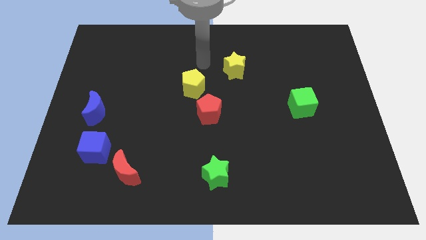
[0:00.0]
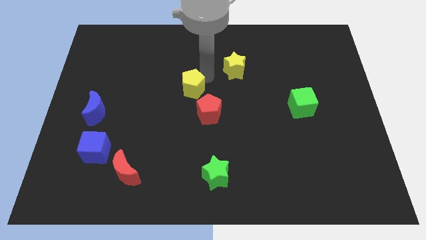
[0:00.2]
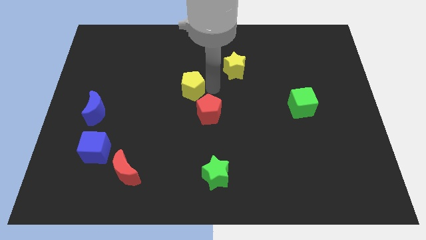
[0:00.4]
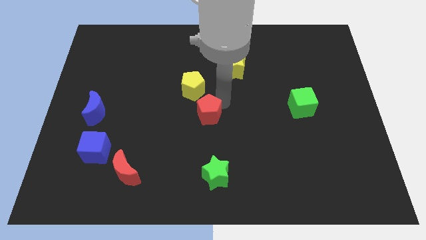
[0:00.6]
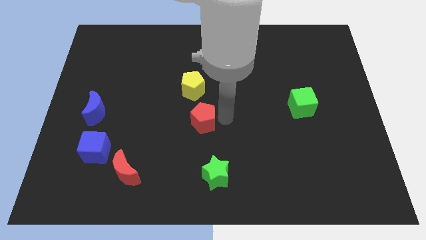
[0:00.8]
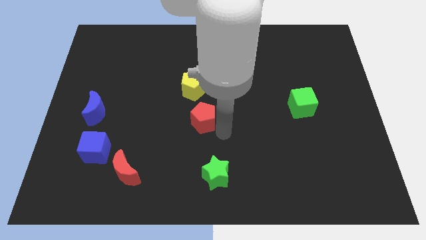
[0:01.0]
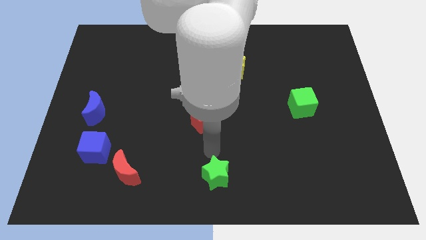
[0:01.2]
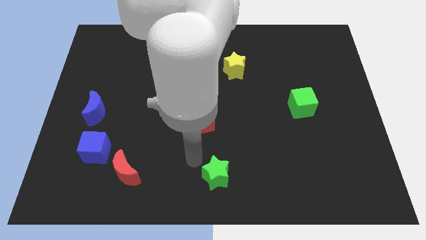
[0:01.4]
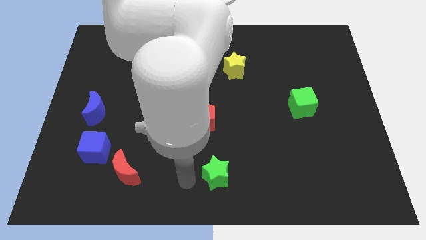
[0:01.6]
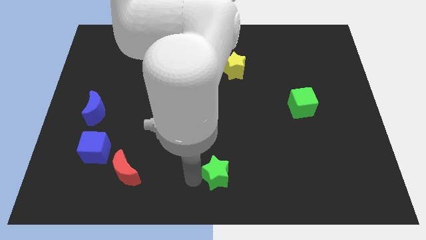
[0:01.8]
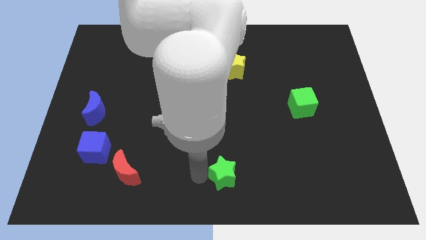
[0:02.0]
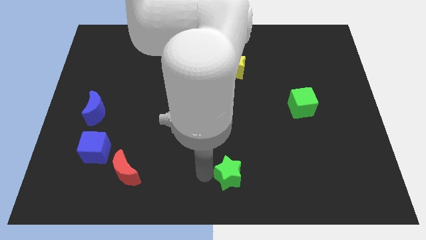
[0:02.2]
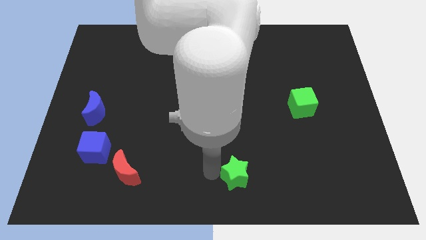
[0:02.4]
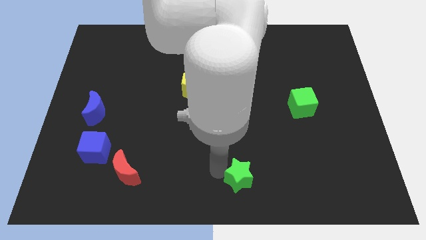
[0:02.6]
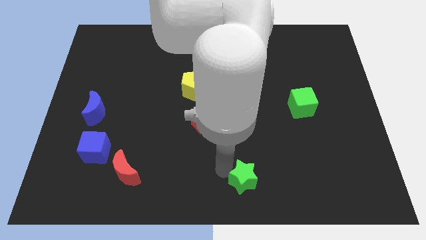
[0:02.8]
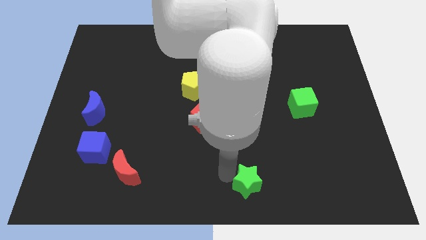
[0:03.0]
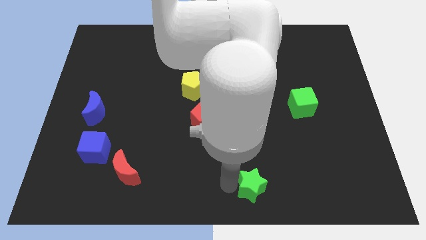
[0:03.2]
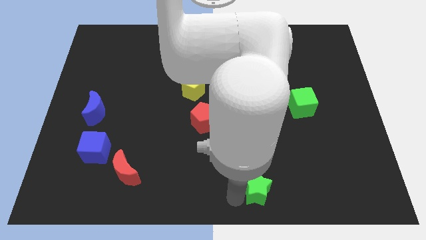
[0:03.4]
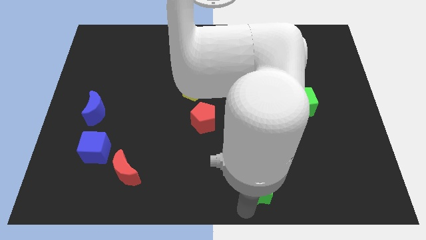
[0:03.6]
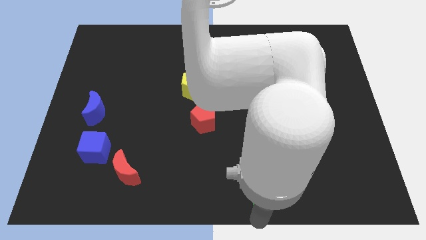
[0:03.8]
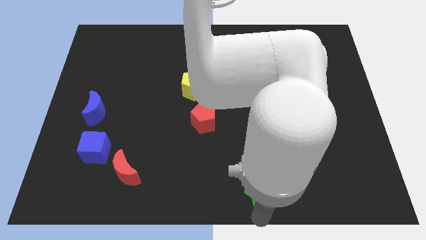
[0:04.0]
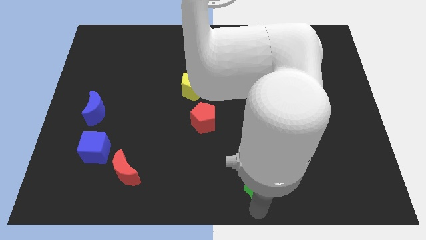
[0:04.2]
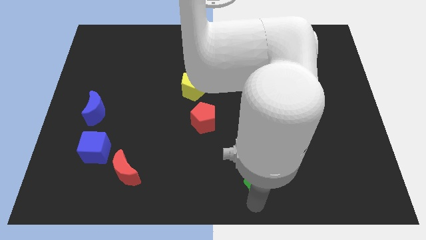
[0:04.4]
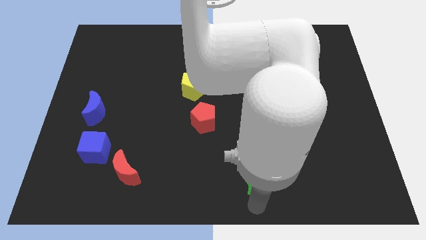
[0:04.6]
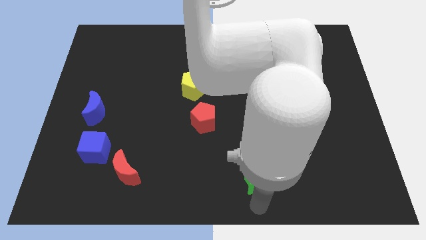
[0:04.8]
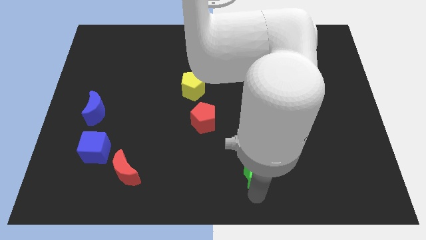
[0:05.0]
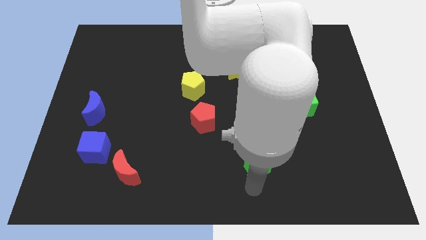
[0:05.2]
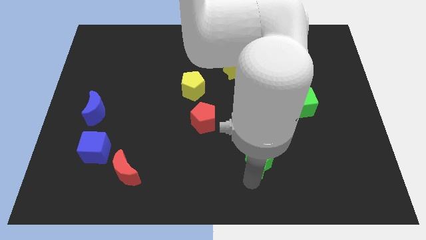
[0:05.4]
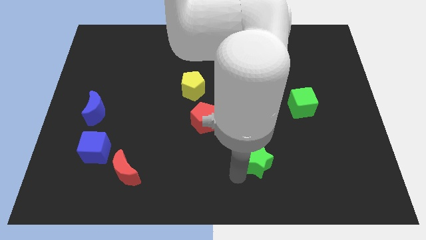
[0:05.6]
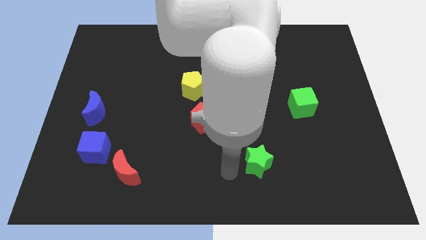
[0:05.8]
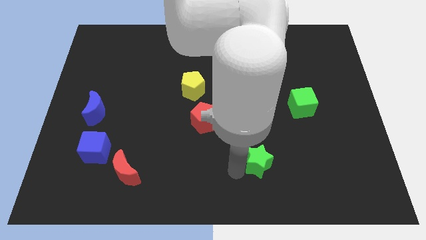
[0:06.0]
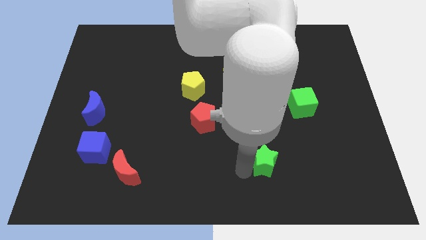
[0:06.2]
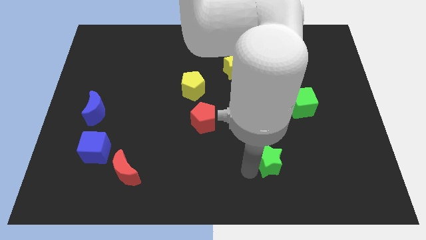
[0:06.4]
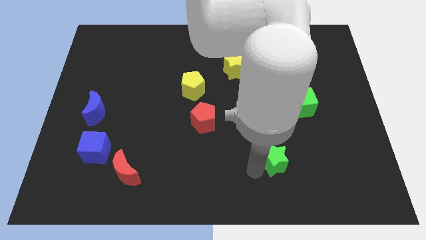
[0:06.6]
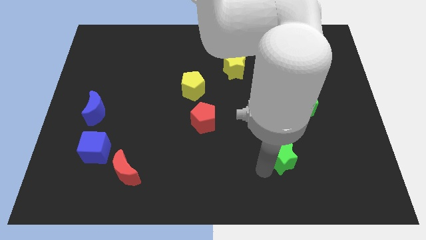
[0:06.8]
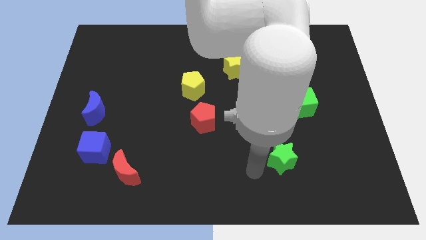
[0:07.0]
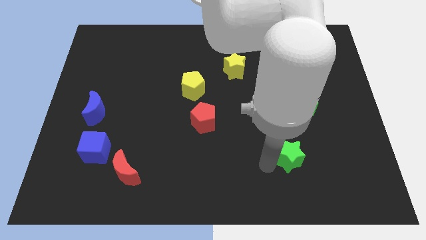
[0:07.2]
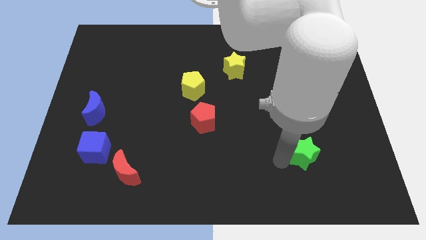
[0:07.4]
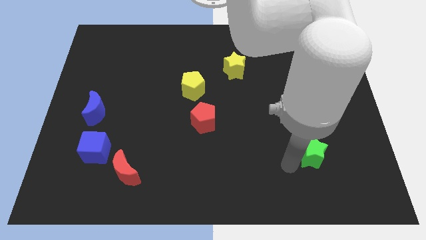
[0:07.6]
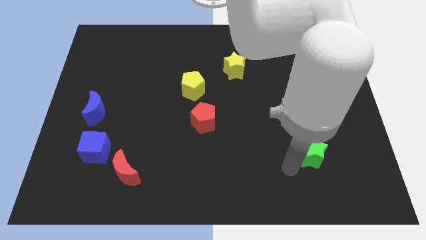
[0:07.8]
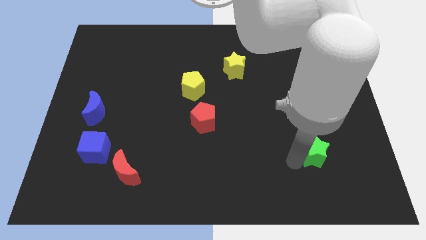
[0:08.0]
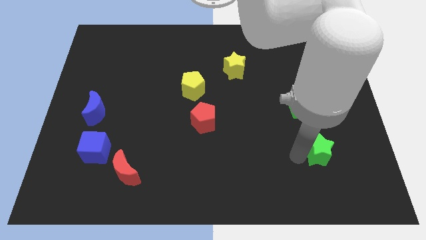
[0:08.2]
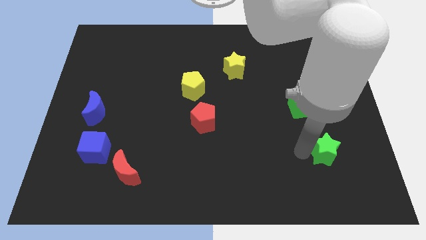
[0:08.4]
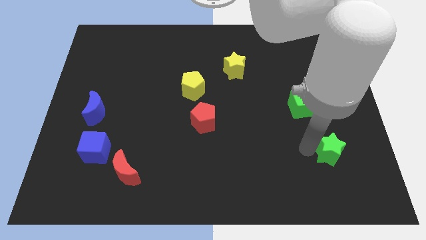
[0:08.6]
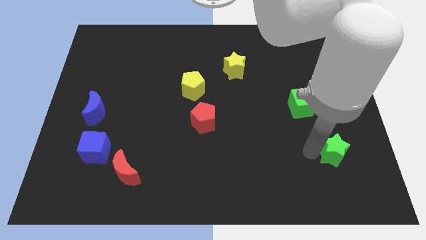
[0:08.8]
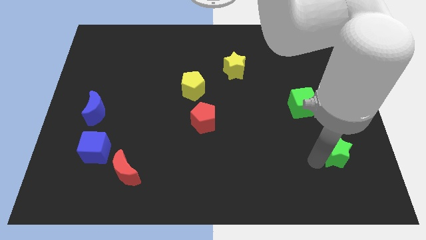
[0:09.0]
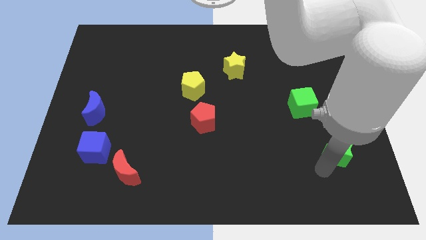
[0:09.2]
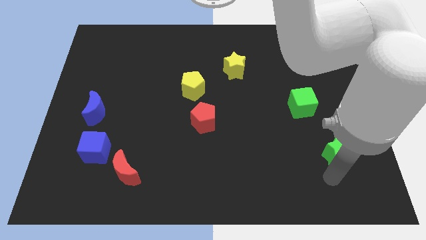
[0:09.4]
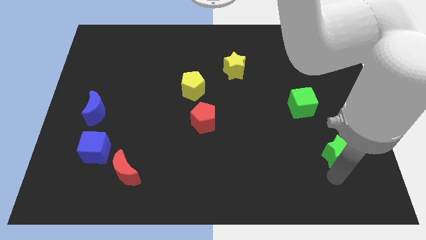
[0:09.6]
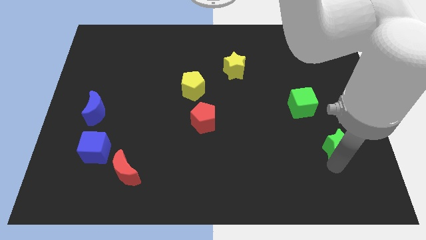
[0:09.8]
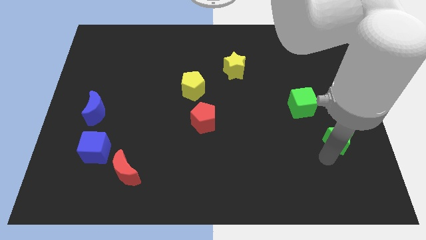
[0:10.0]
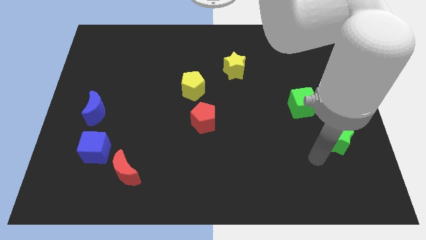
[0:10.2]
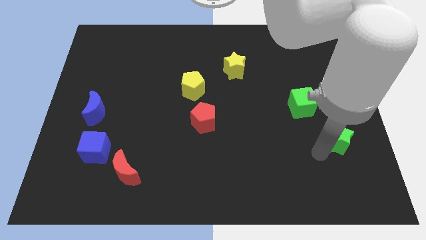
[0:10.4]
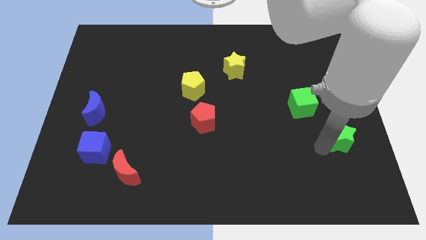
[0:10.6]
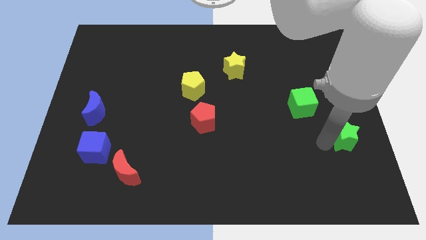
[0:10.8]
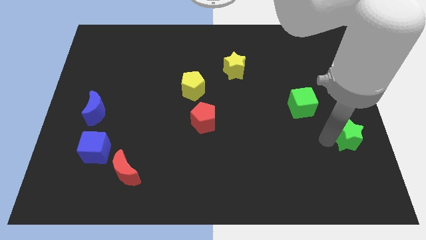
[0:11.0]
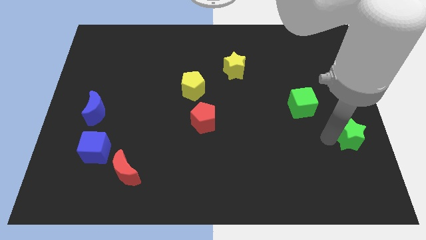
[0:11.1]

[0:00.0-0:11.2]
move the green star to the right side of the board

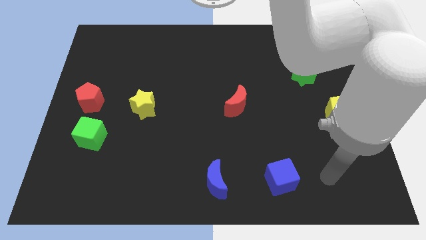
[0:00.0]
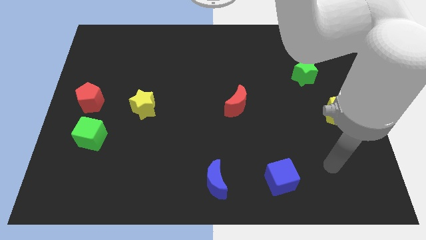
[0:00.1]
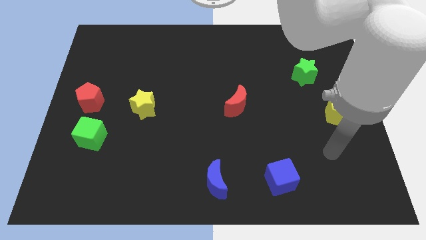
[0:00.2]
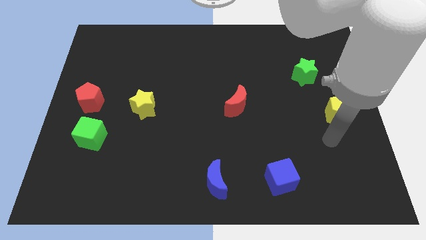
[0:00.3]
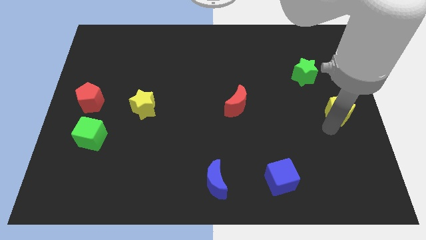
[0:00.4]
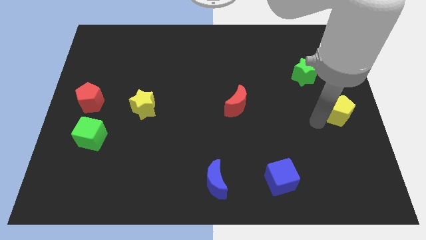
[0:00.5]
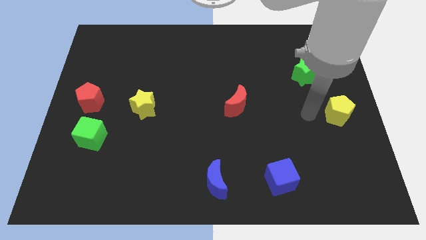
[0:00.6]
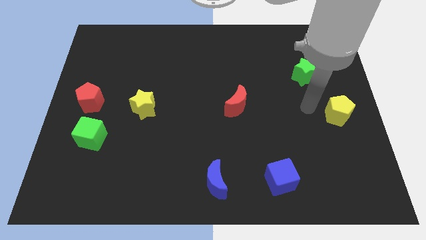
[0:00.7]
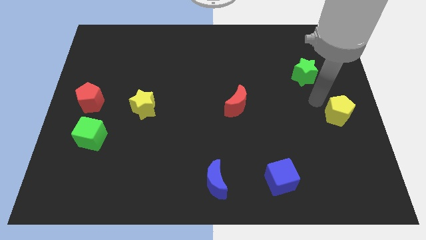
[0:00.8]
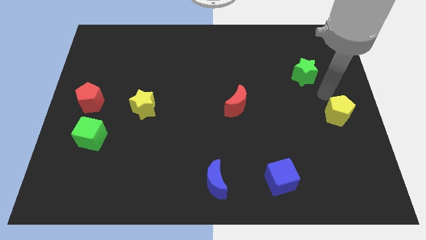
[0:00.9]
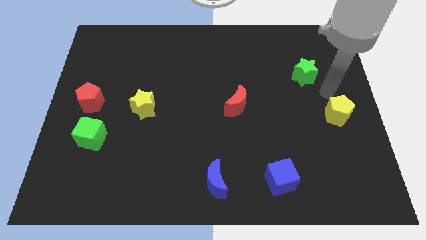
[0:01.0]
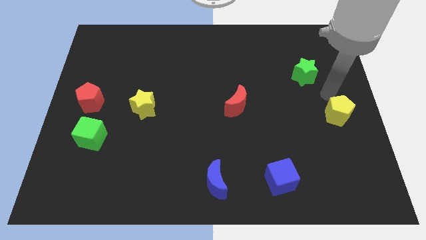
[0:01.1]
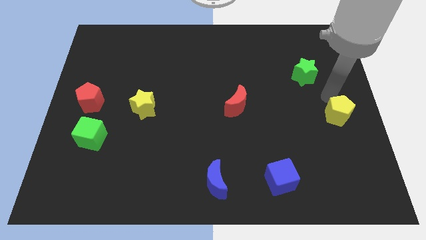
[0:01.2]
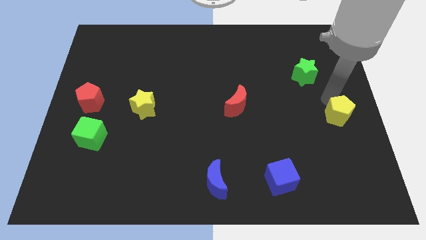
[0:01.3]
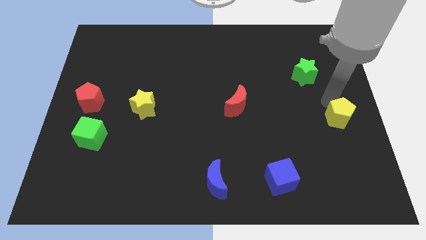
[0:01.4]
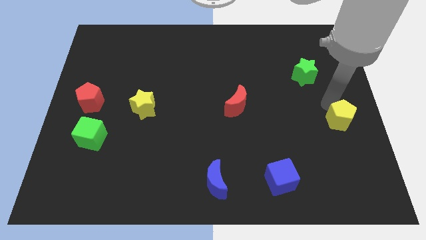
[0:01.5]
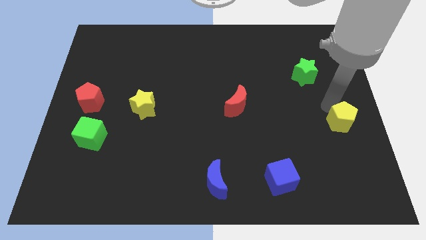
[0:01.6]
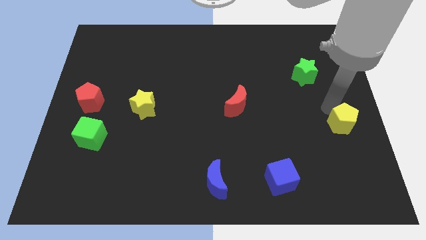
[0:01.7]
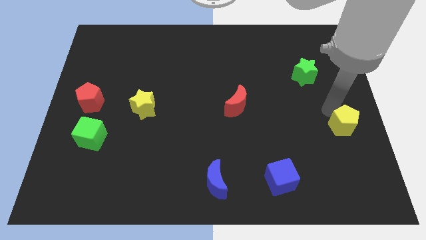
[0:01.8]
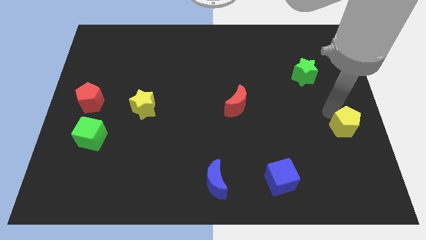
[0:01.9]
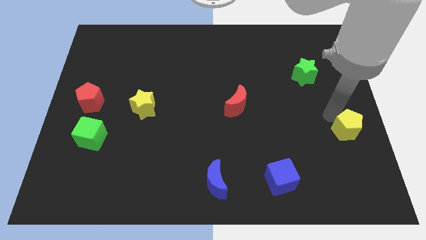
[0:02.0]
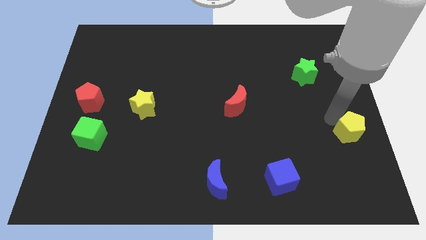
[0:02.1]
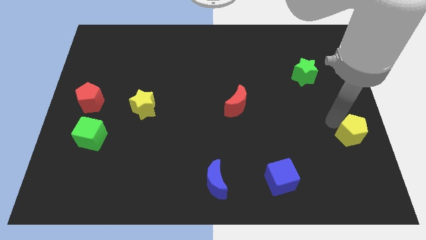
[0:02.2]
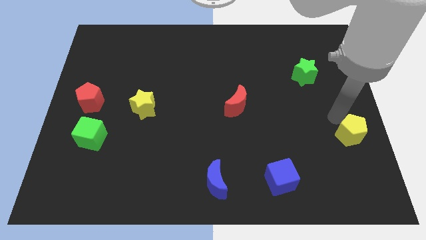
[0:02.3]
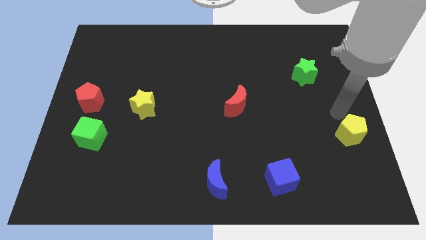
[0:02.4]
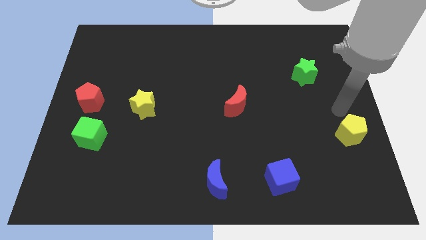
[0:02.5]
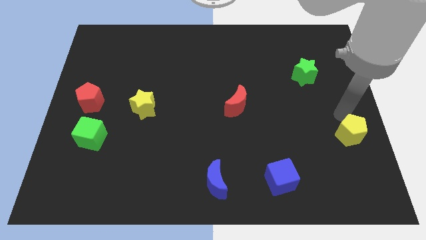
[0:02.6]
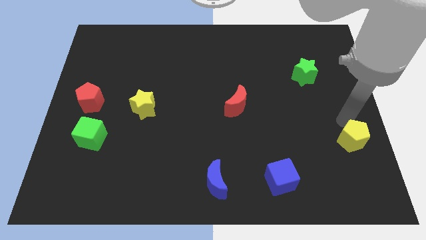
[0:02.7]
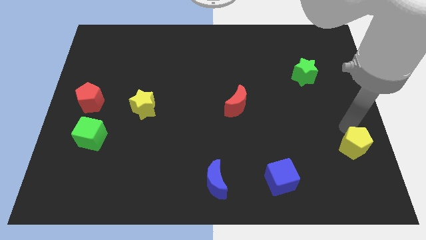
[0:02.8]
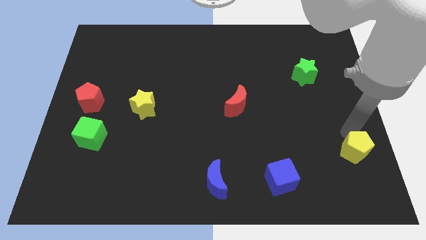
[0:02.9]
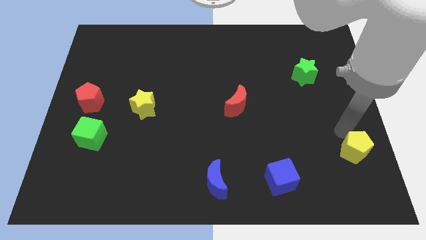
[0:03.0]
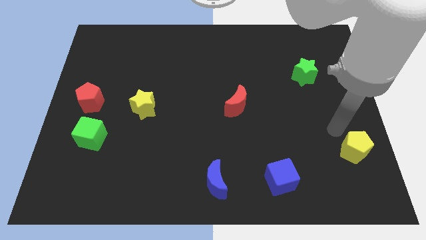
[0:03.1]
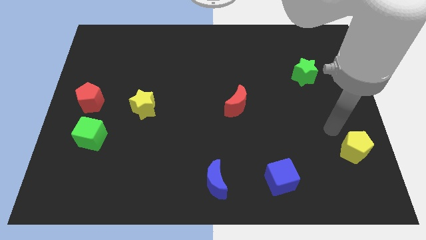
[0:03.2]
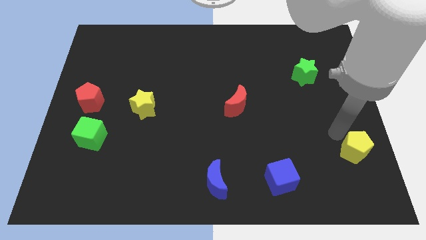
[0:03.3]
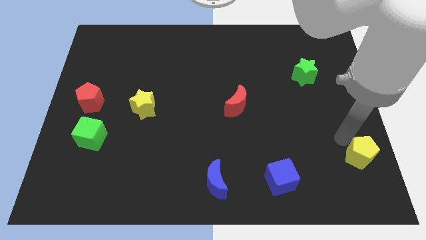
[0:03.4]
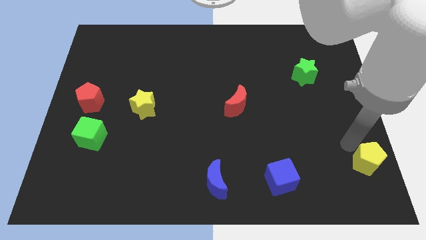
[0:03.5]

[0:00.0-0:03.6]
push the yellow pentagon to the bottom right
